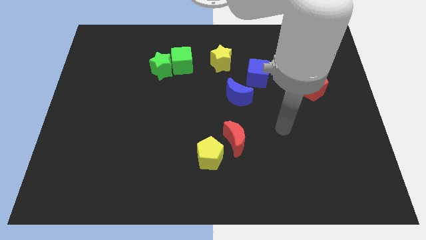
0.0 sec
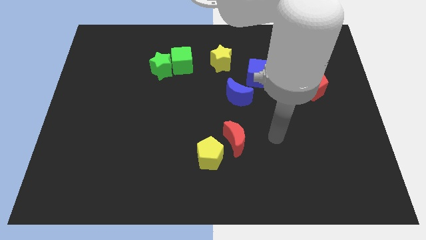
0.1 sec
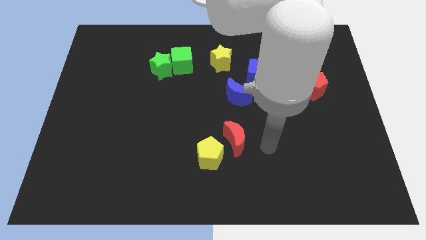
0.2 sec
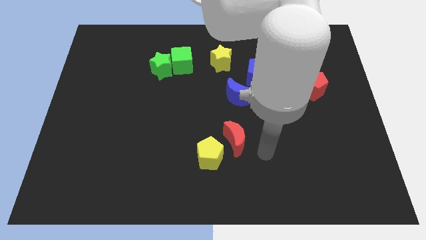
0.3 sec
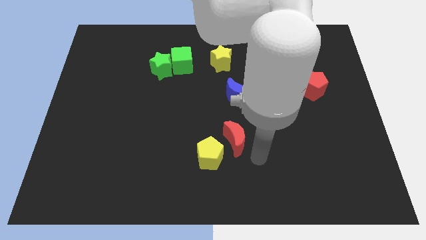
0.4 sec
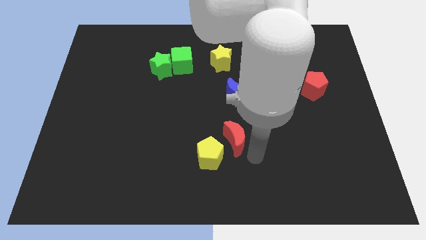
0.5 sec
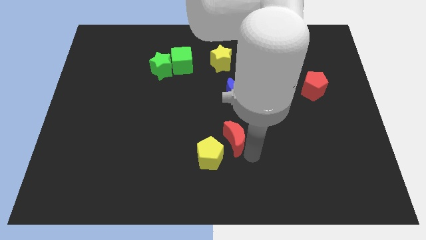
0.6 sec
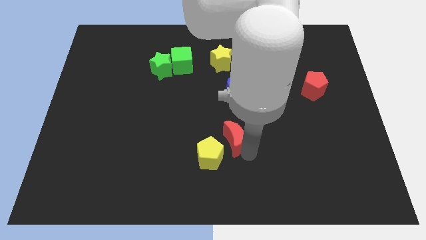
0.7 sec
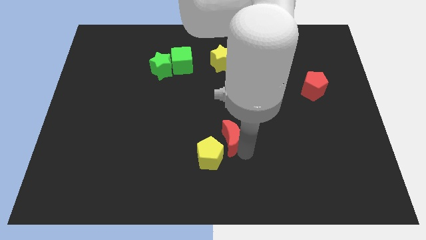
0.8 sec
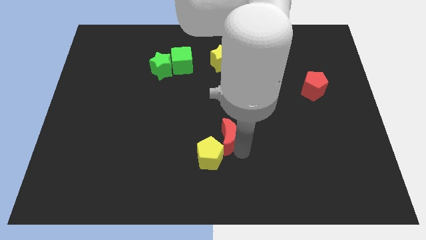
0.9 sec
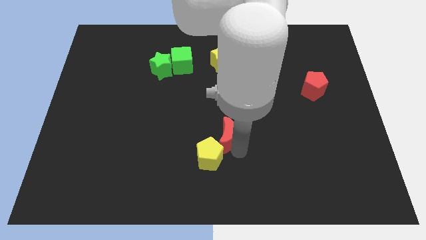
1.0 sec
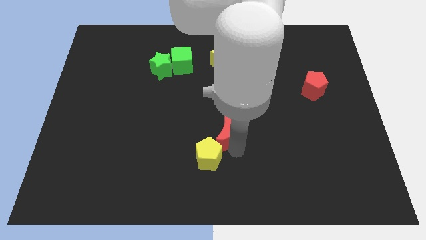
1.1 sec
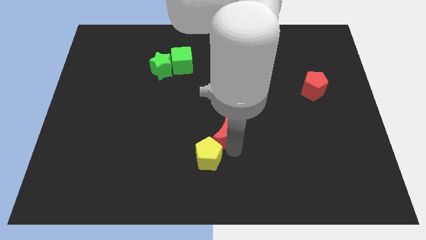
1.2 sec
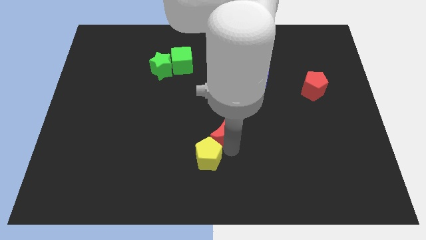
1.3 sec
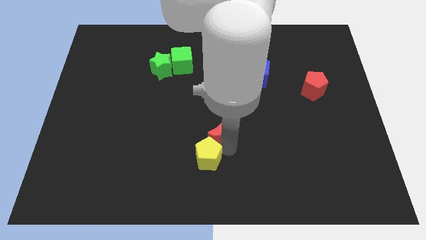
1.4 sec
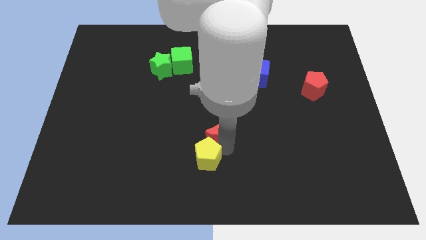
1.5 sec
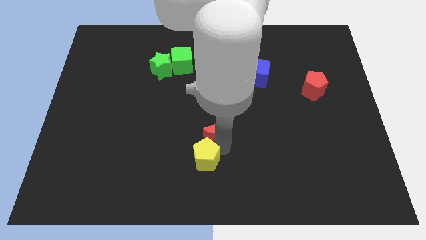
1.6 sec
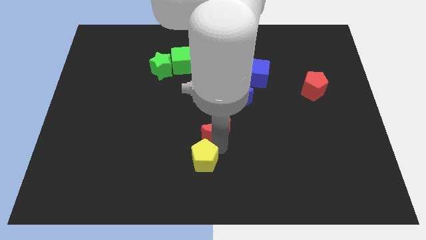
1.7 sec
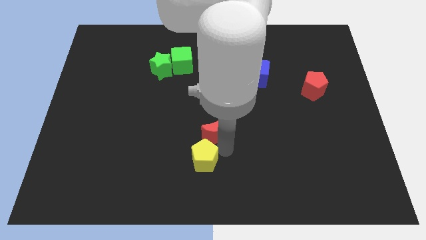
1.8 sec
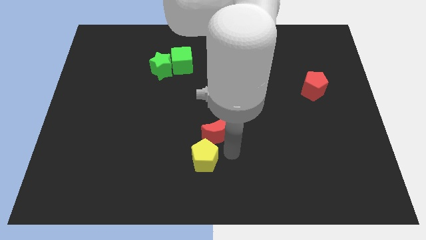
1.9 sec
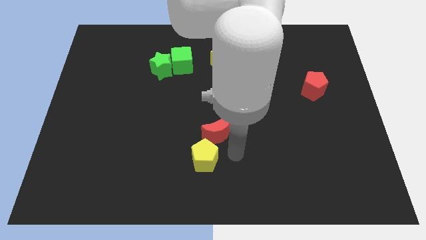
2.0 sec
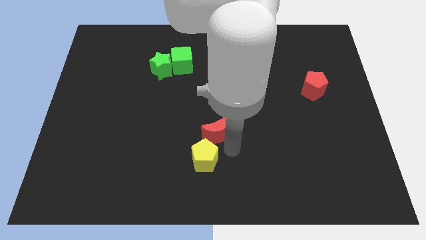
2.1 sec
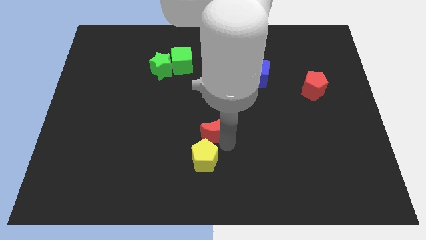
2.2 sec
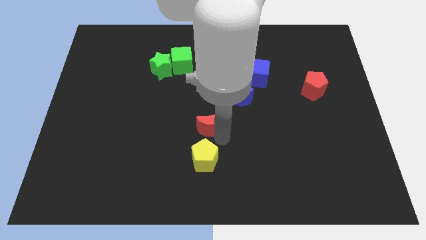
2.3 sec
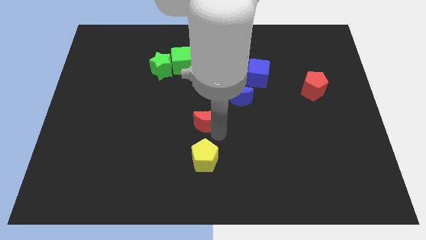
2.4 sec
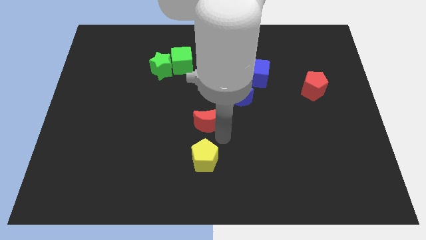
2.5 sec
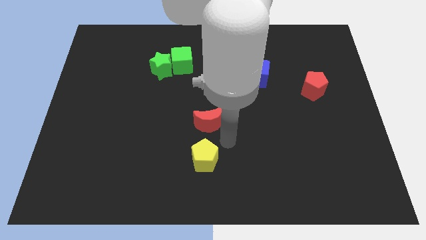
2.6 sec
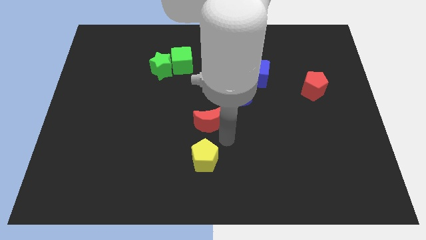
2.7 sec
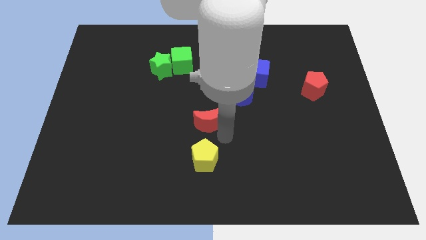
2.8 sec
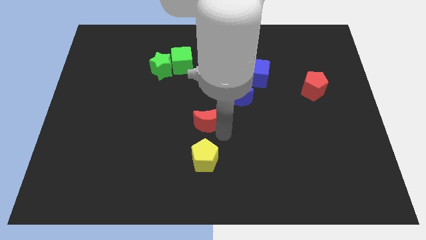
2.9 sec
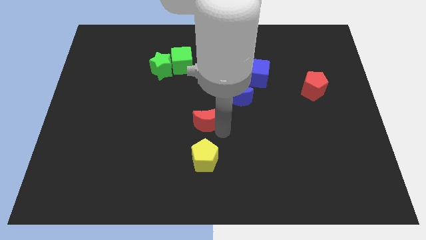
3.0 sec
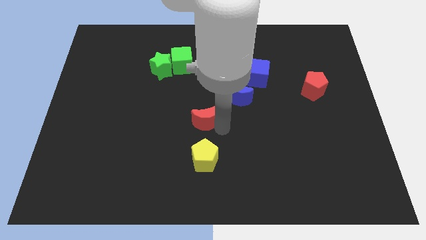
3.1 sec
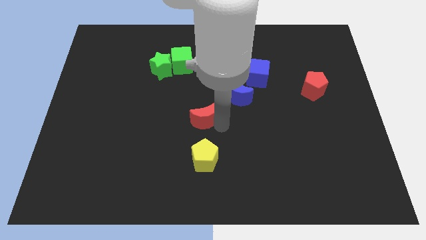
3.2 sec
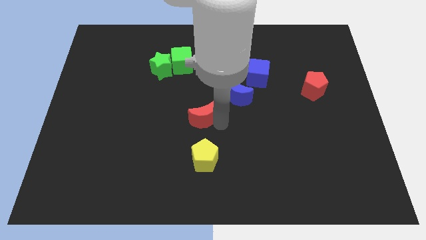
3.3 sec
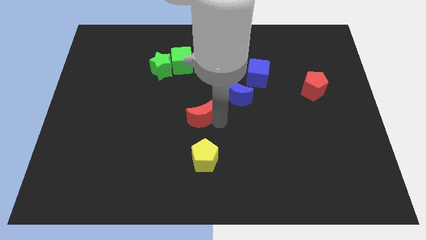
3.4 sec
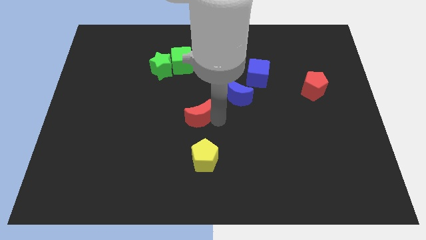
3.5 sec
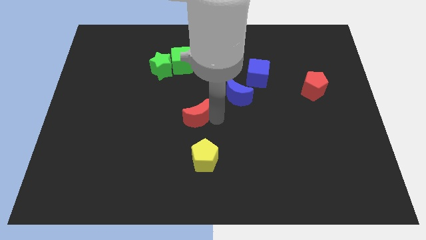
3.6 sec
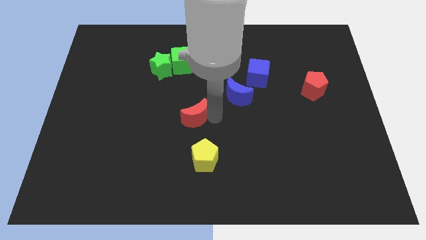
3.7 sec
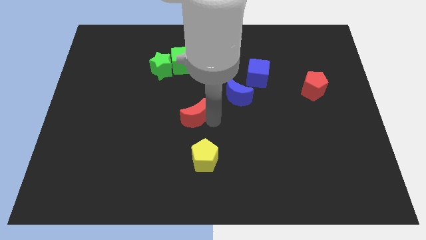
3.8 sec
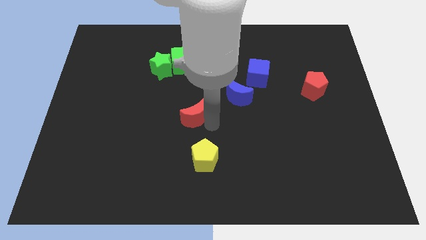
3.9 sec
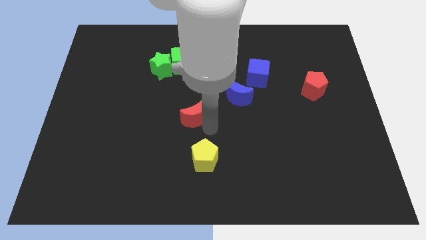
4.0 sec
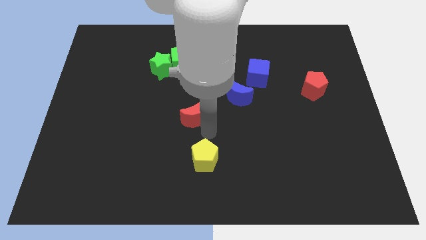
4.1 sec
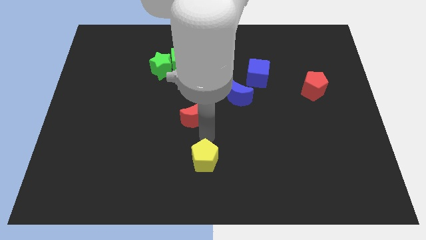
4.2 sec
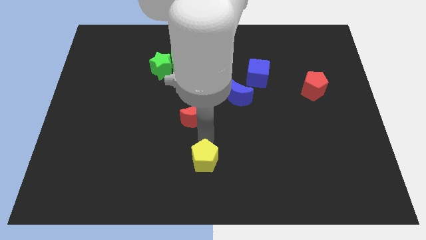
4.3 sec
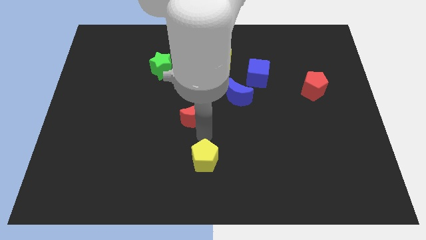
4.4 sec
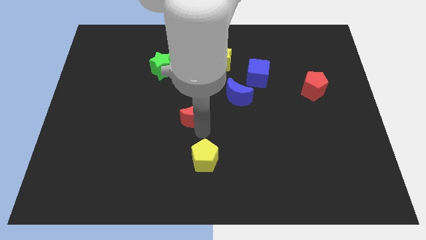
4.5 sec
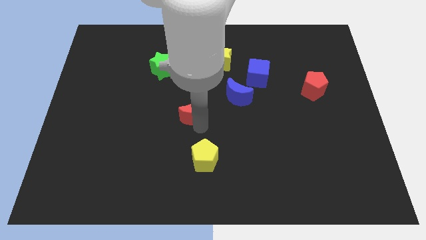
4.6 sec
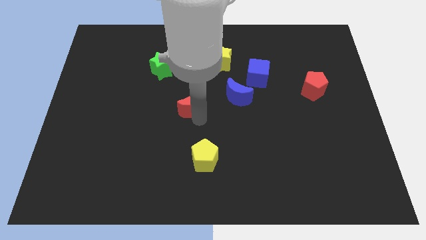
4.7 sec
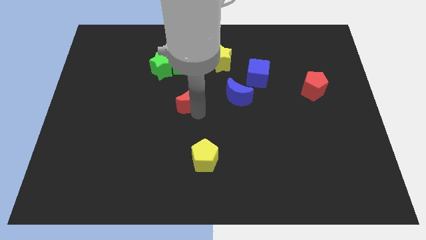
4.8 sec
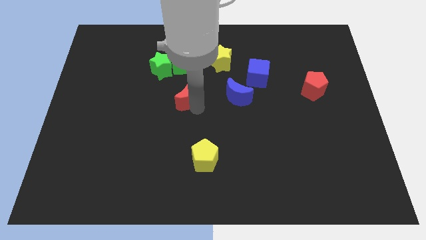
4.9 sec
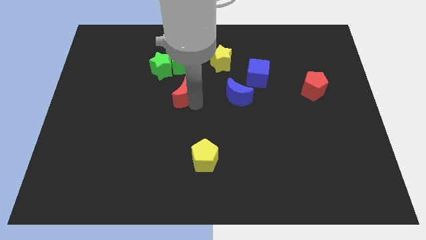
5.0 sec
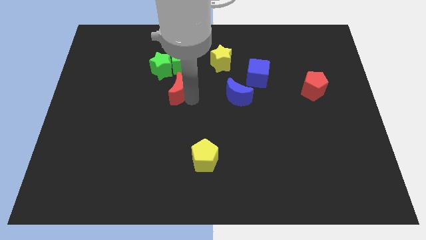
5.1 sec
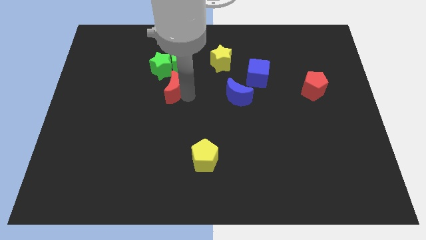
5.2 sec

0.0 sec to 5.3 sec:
push the red moon up and to the left diagonally

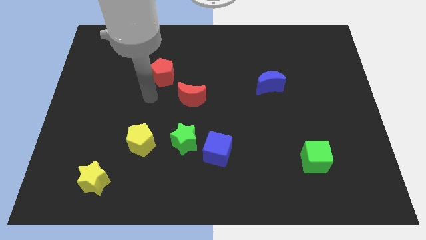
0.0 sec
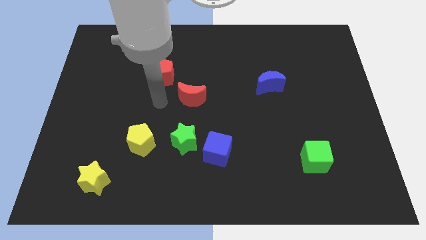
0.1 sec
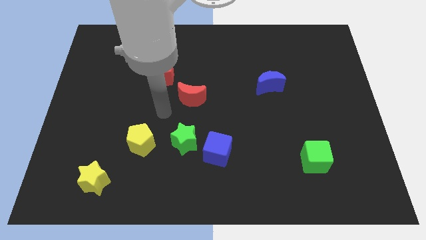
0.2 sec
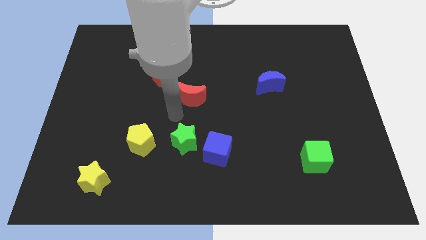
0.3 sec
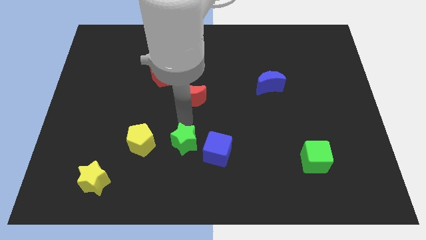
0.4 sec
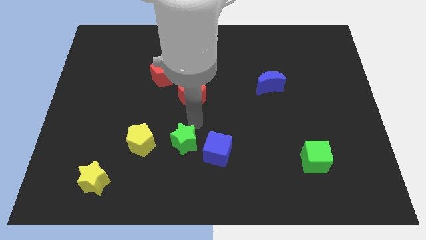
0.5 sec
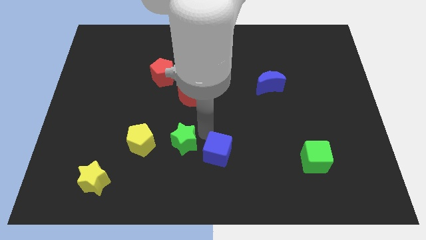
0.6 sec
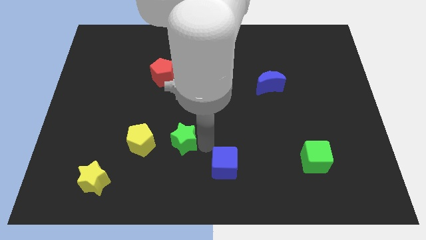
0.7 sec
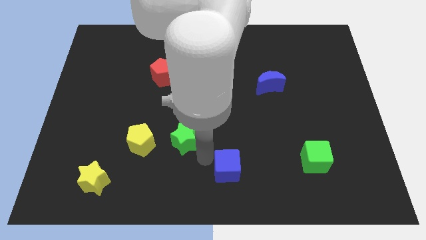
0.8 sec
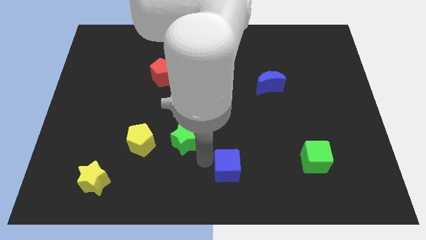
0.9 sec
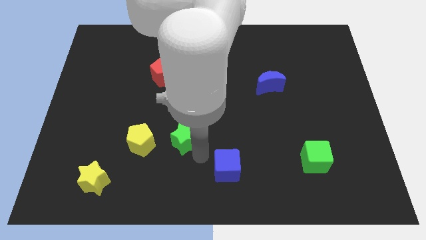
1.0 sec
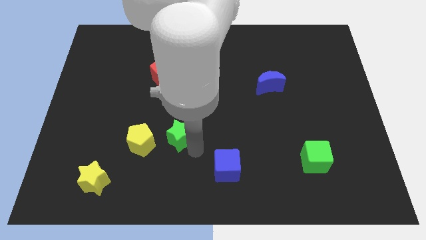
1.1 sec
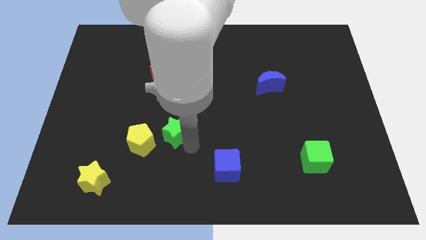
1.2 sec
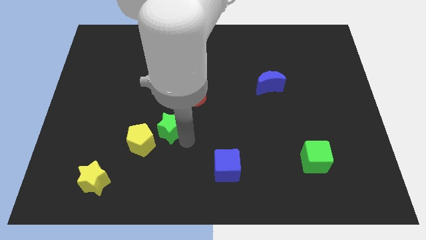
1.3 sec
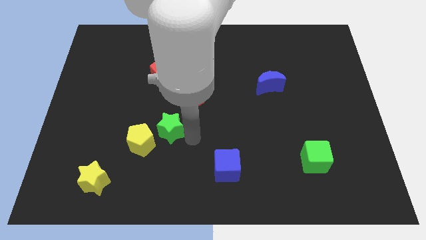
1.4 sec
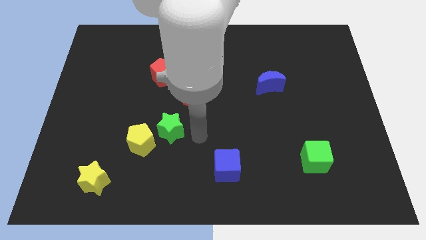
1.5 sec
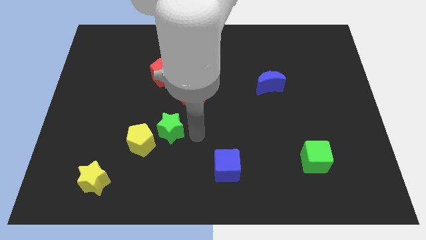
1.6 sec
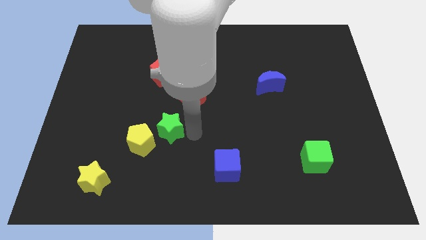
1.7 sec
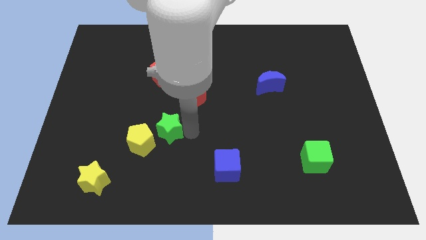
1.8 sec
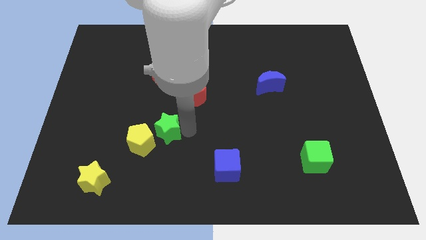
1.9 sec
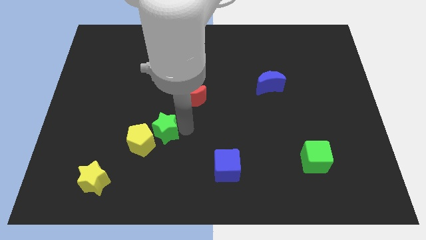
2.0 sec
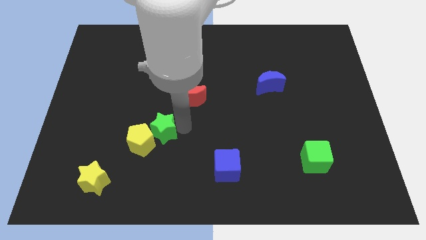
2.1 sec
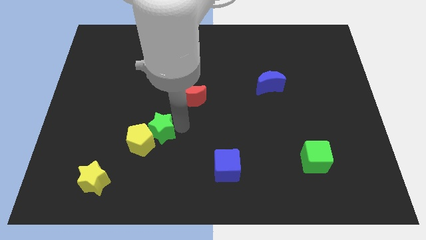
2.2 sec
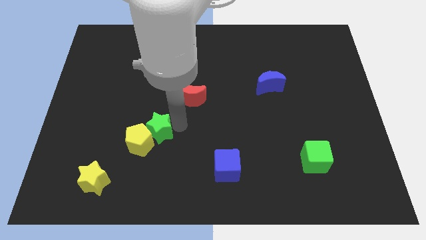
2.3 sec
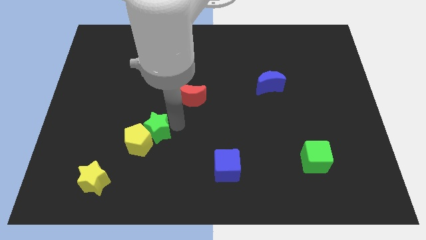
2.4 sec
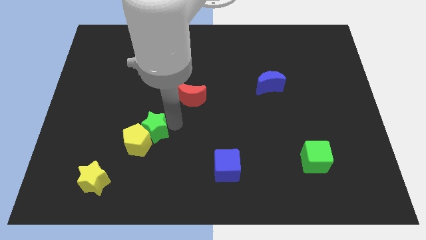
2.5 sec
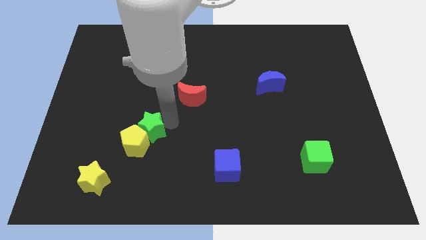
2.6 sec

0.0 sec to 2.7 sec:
slightly push the green star left

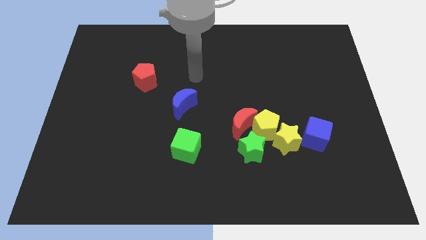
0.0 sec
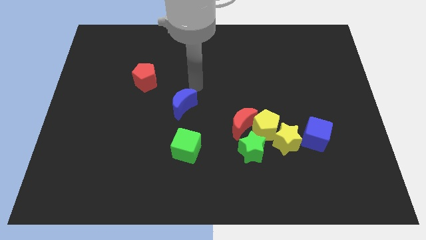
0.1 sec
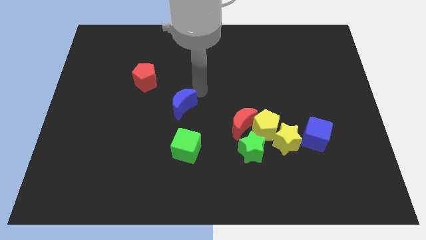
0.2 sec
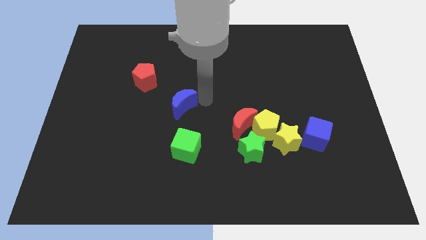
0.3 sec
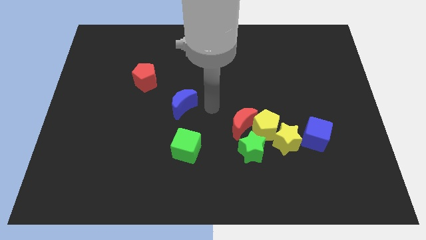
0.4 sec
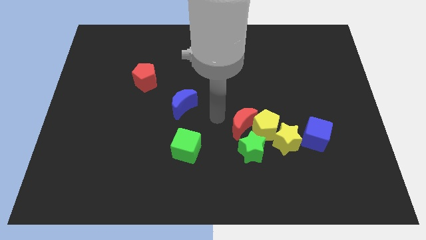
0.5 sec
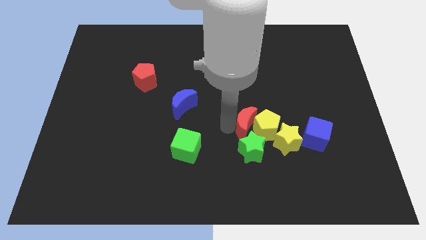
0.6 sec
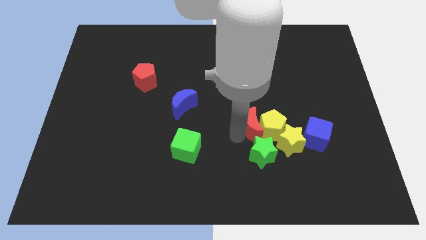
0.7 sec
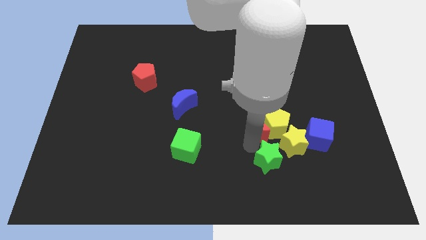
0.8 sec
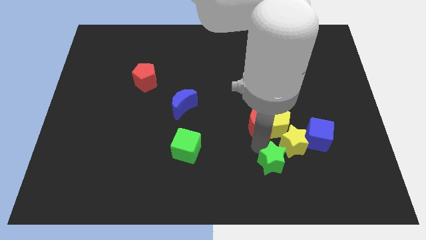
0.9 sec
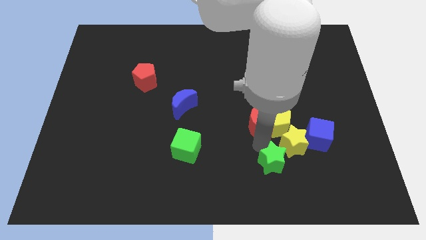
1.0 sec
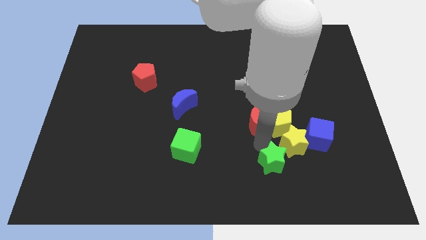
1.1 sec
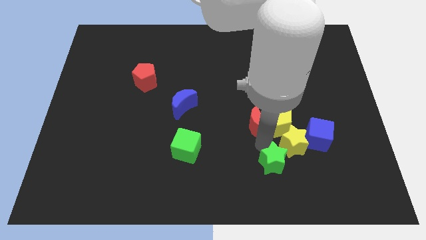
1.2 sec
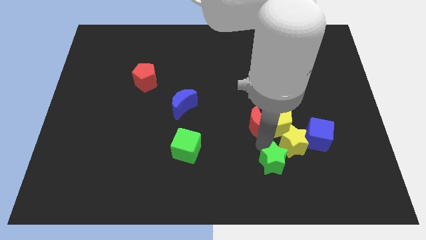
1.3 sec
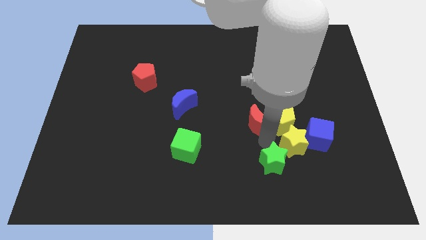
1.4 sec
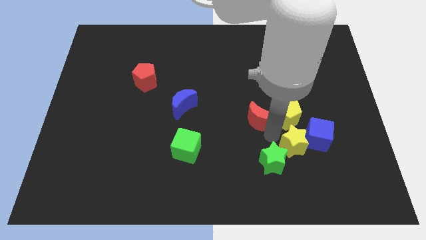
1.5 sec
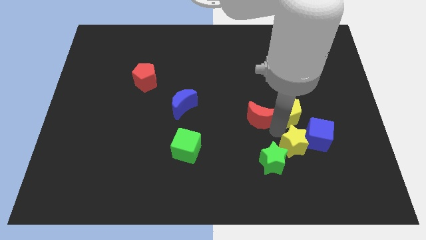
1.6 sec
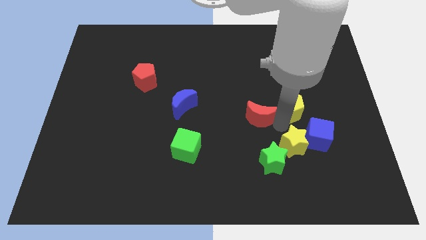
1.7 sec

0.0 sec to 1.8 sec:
push the yellow pentagon up and to the right diagonally a little
